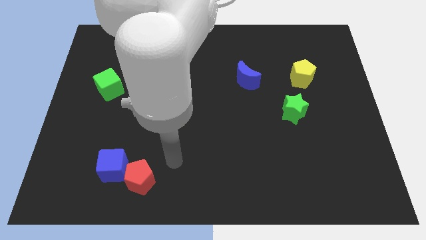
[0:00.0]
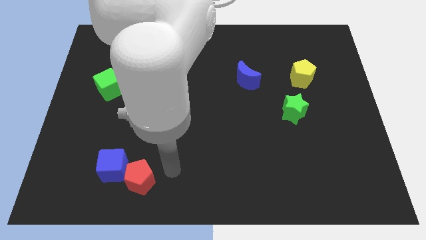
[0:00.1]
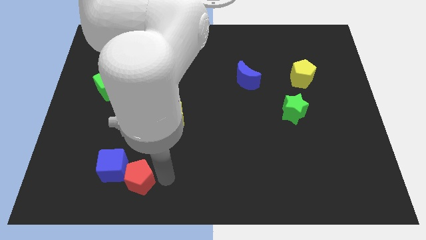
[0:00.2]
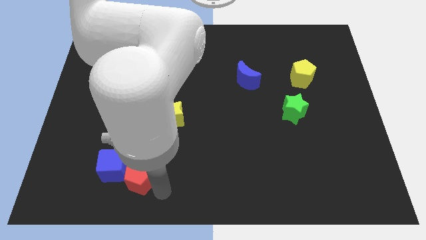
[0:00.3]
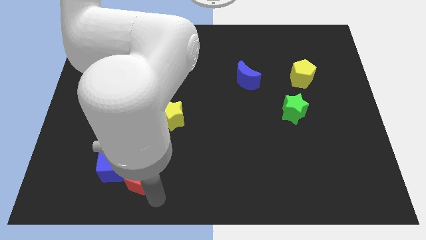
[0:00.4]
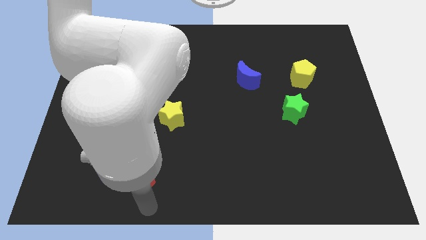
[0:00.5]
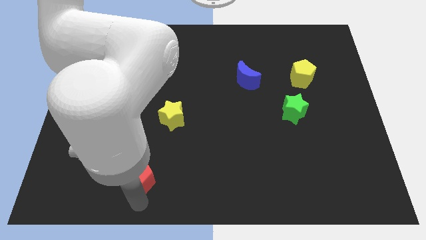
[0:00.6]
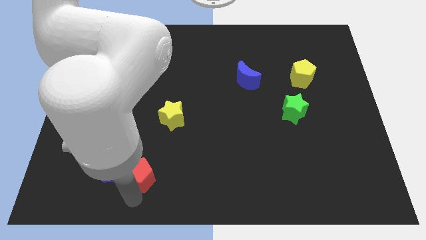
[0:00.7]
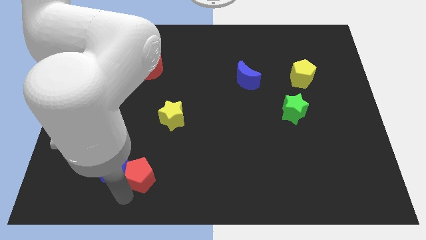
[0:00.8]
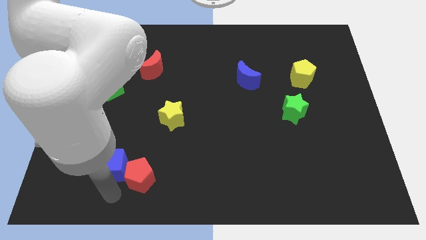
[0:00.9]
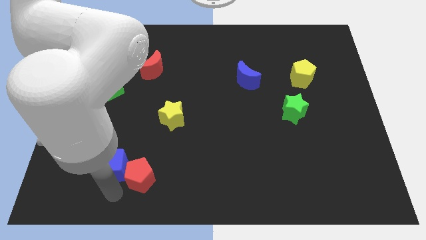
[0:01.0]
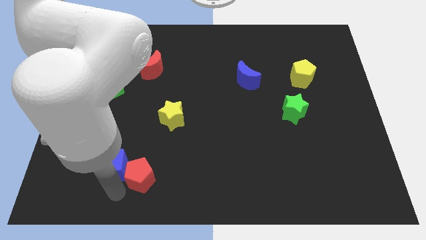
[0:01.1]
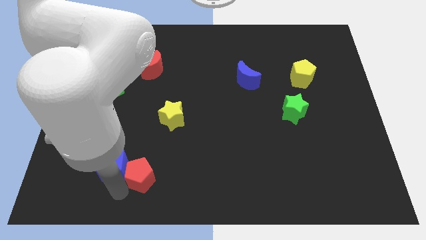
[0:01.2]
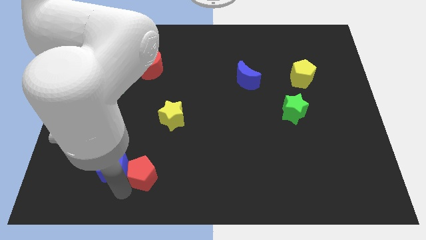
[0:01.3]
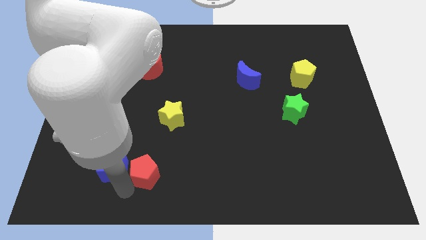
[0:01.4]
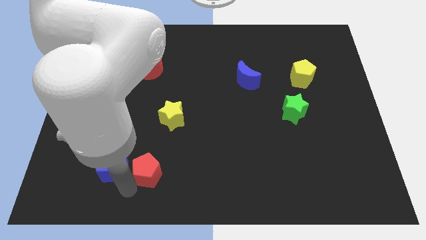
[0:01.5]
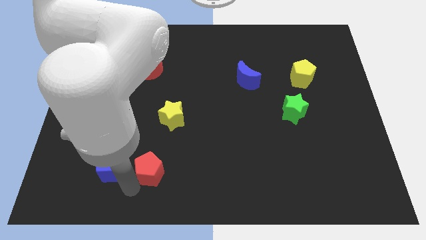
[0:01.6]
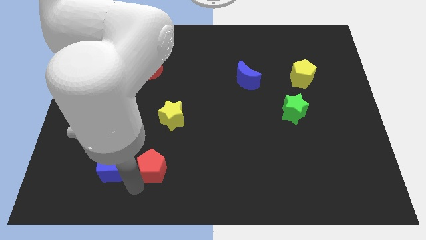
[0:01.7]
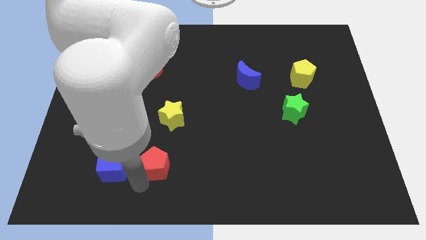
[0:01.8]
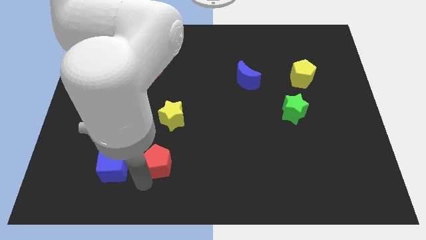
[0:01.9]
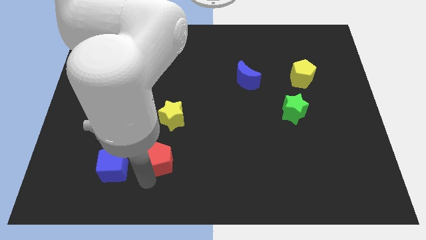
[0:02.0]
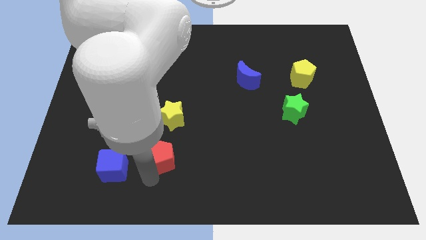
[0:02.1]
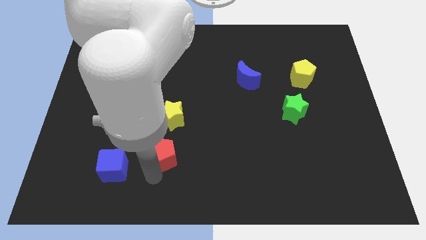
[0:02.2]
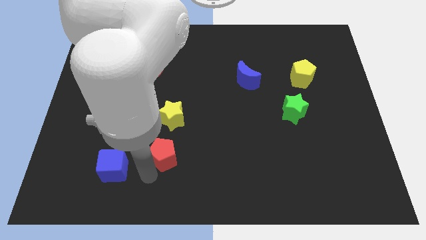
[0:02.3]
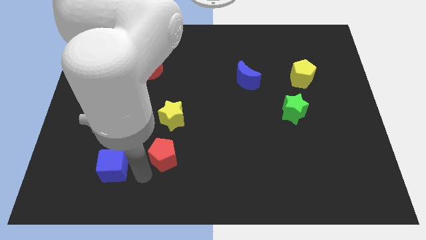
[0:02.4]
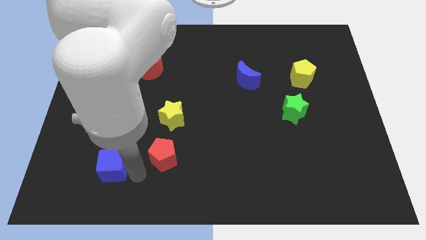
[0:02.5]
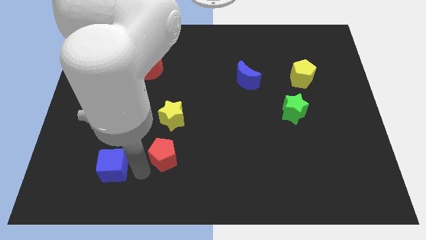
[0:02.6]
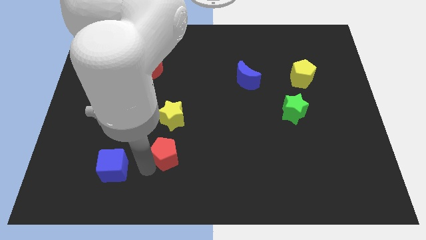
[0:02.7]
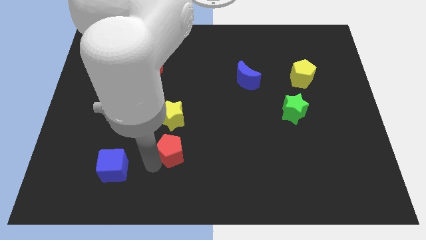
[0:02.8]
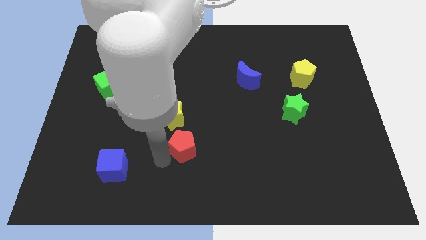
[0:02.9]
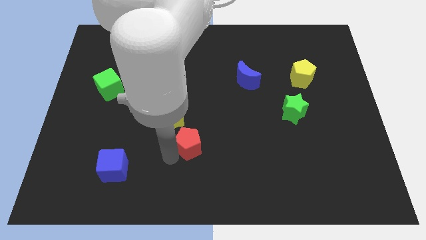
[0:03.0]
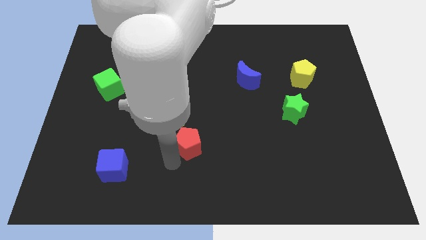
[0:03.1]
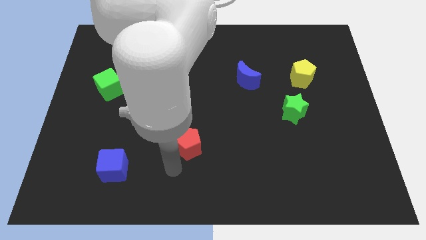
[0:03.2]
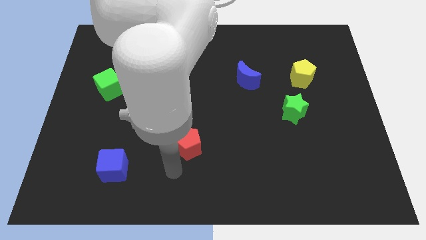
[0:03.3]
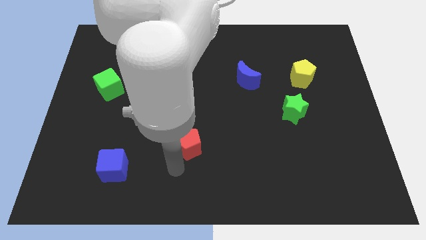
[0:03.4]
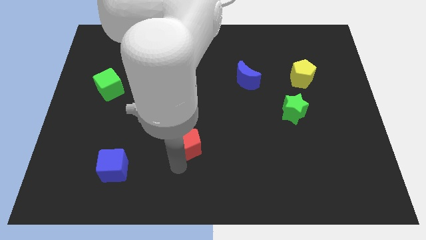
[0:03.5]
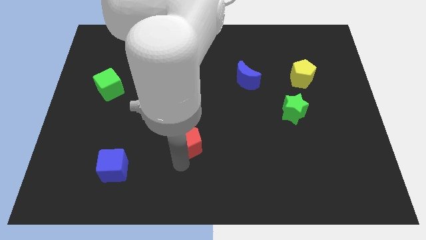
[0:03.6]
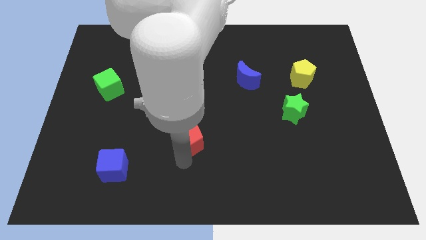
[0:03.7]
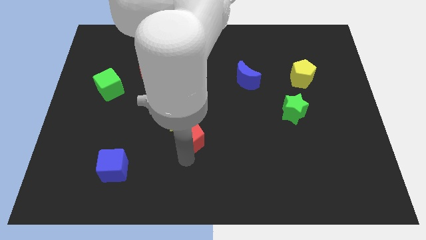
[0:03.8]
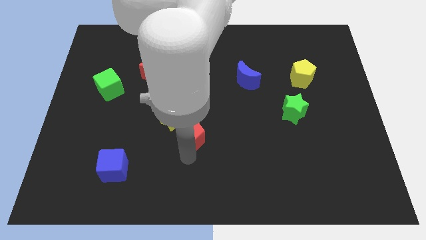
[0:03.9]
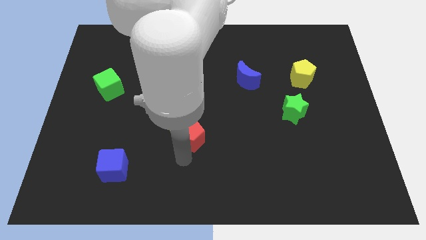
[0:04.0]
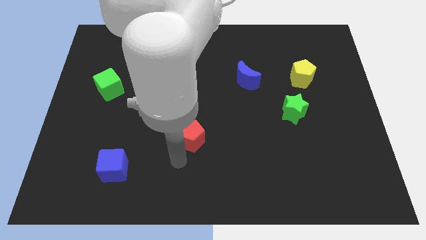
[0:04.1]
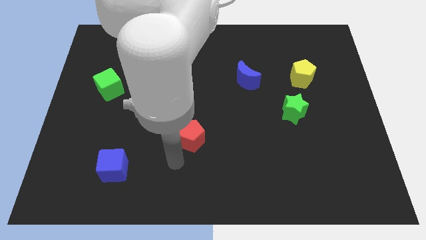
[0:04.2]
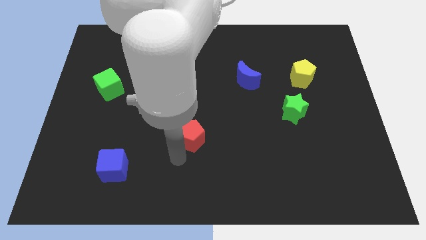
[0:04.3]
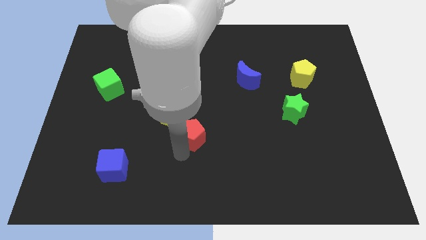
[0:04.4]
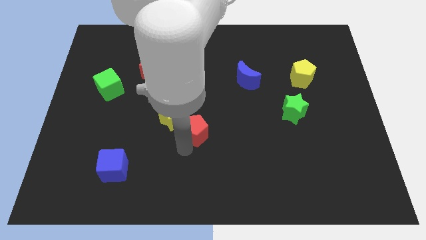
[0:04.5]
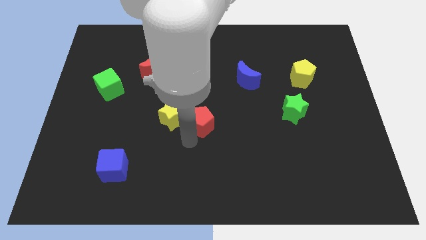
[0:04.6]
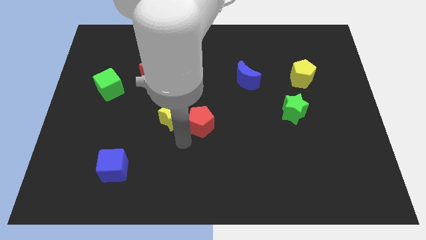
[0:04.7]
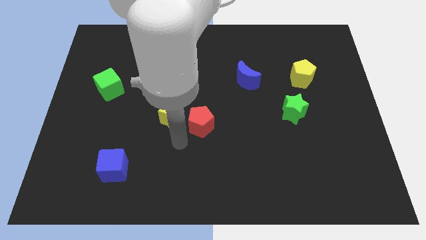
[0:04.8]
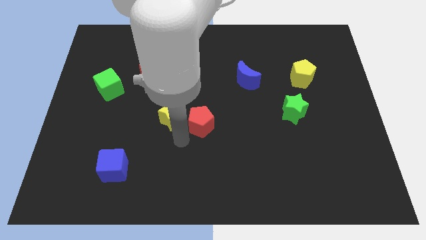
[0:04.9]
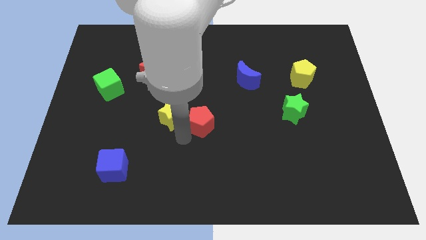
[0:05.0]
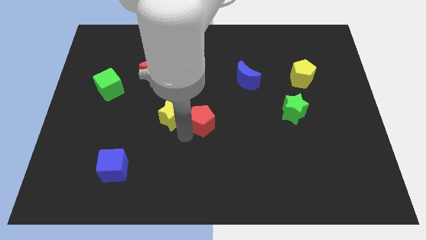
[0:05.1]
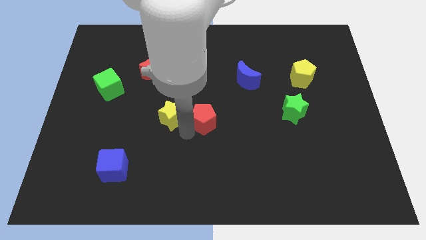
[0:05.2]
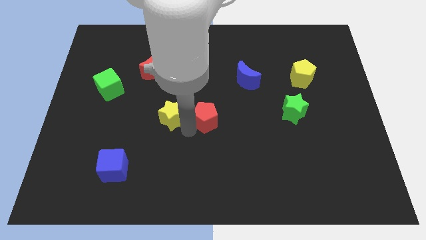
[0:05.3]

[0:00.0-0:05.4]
move the red pentagon diagonally up and to the right

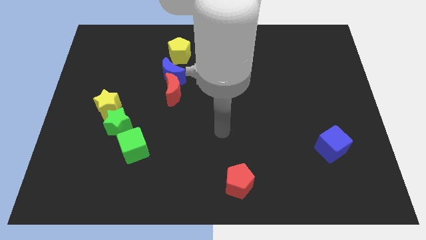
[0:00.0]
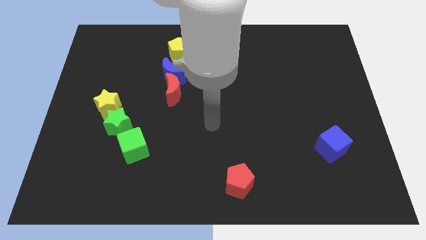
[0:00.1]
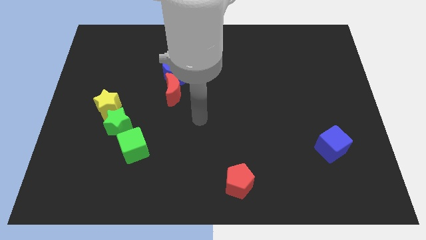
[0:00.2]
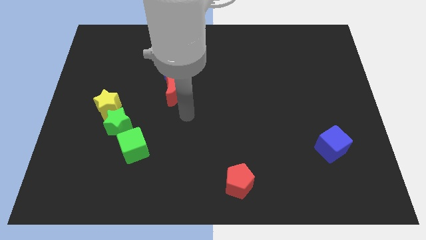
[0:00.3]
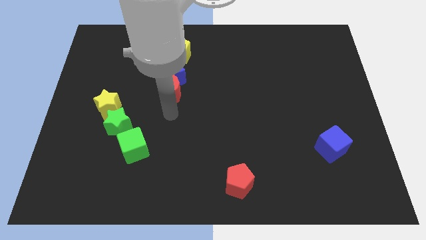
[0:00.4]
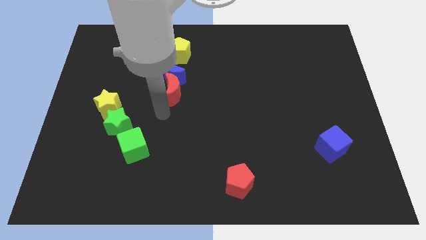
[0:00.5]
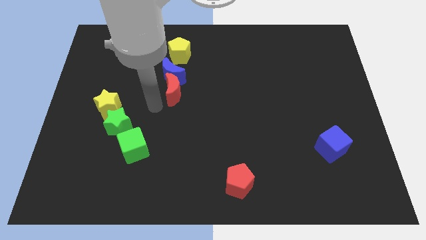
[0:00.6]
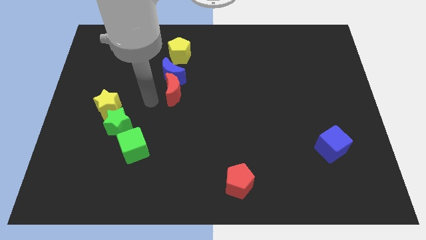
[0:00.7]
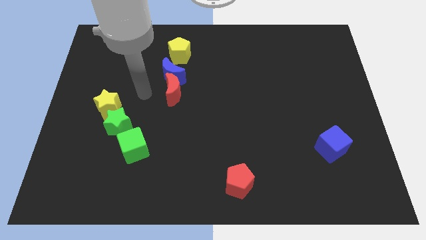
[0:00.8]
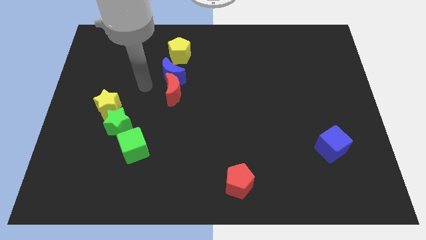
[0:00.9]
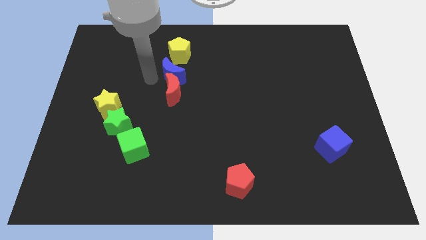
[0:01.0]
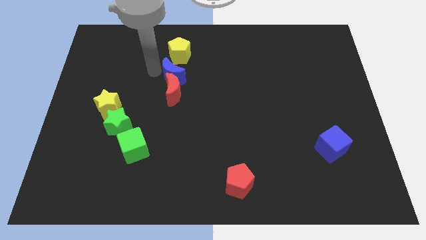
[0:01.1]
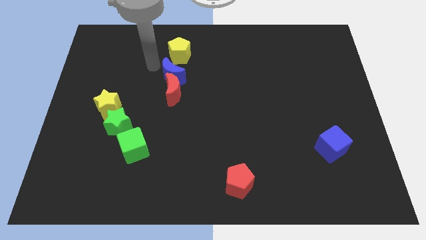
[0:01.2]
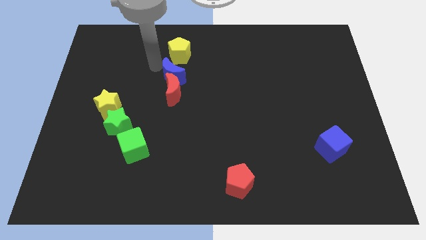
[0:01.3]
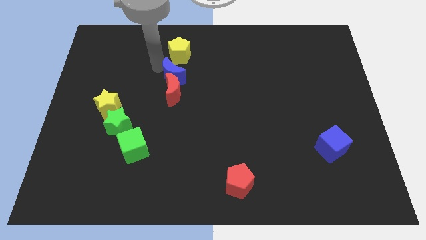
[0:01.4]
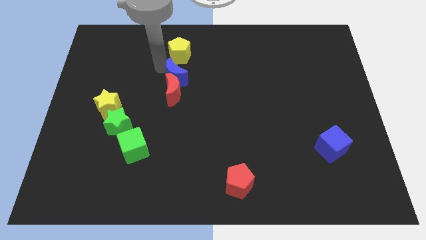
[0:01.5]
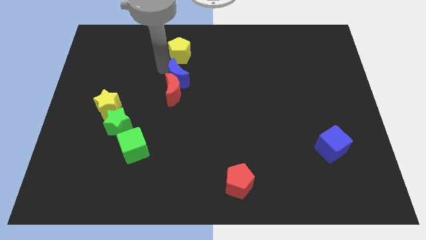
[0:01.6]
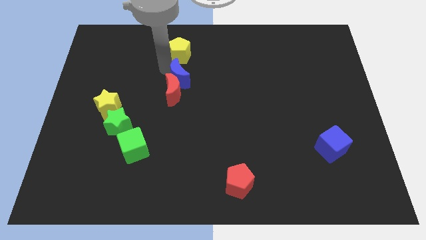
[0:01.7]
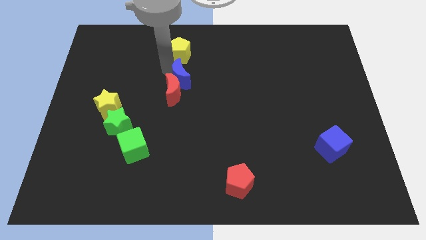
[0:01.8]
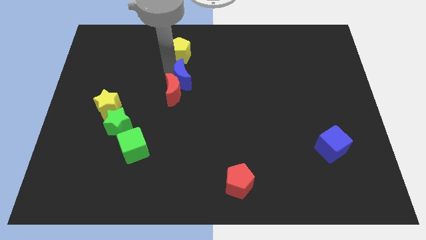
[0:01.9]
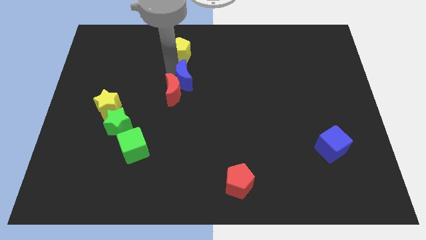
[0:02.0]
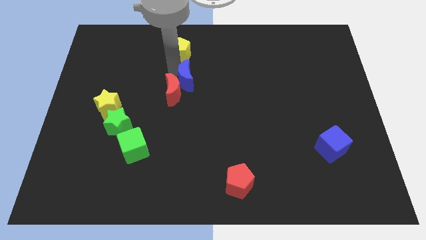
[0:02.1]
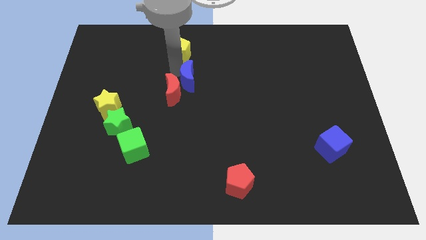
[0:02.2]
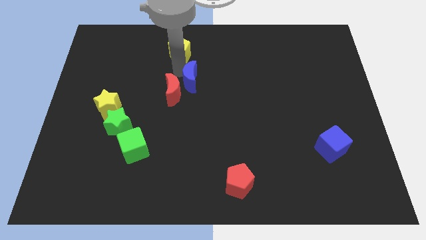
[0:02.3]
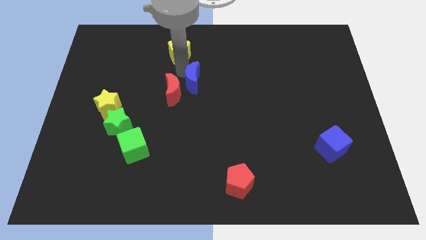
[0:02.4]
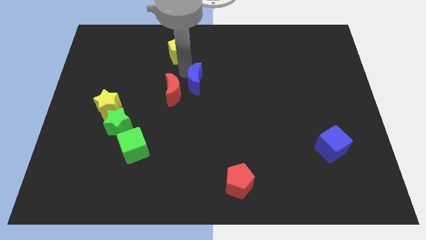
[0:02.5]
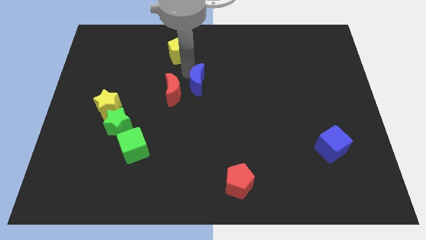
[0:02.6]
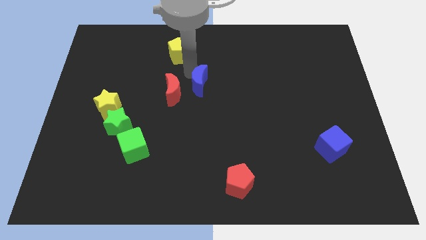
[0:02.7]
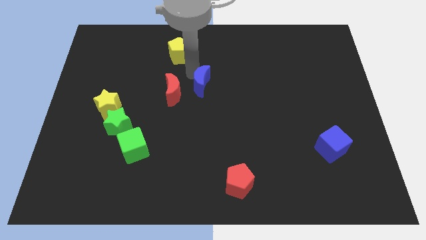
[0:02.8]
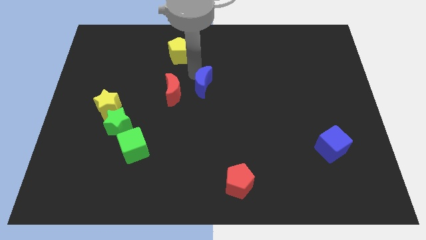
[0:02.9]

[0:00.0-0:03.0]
push the blue moon diagonally downwards and right a bit
